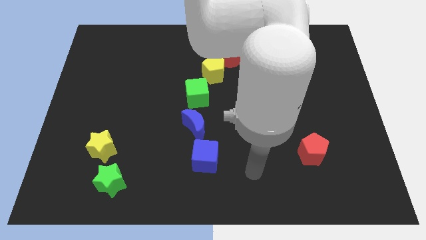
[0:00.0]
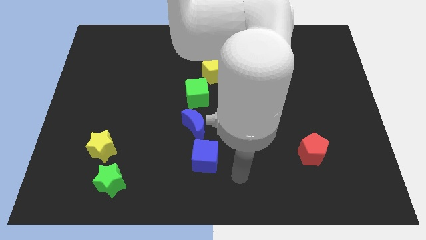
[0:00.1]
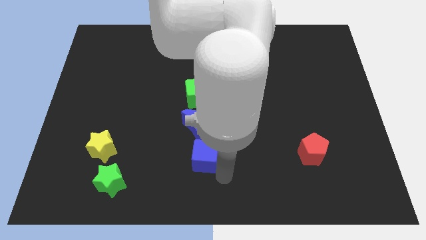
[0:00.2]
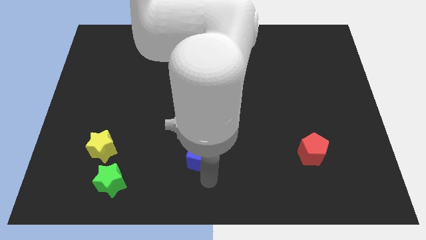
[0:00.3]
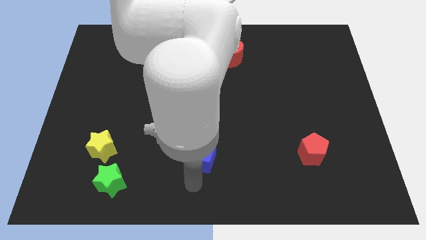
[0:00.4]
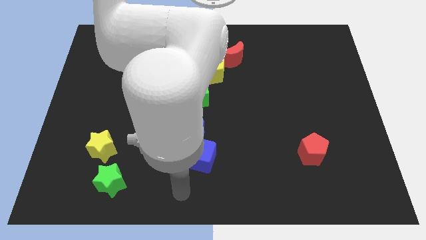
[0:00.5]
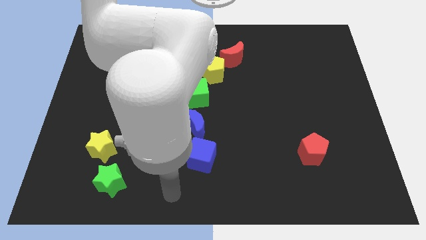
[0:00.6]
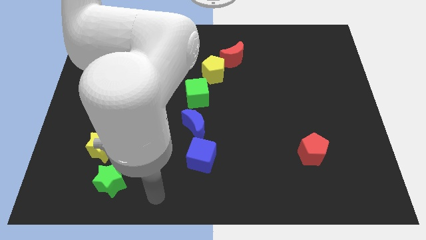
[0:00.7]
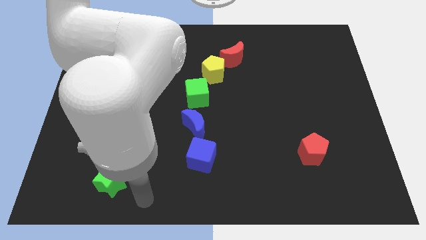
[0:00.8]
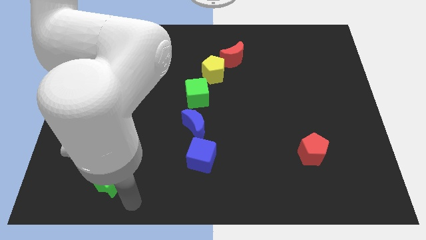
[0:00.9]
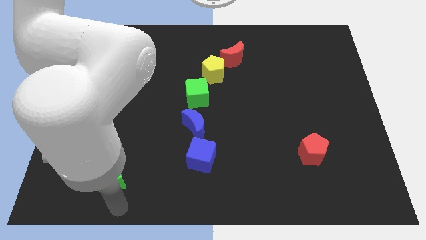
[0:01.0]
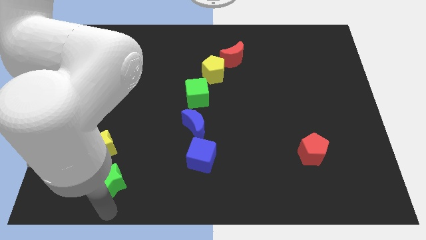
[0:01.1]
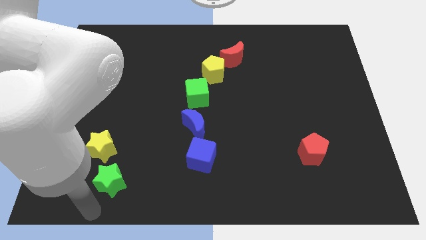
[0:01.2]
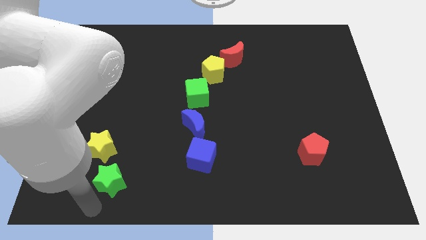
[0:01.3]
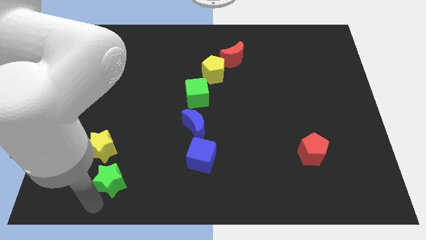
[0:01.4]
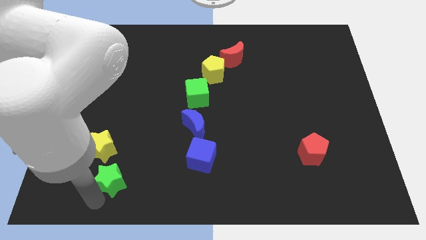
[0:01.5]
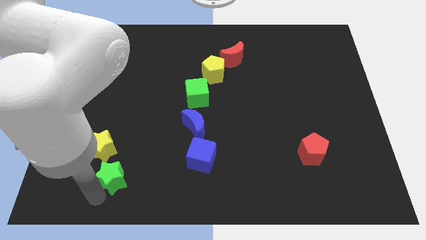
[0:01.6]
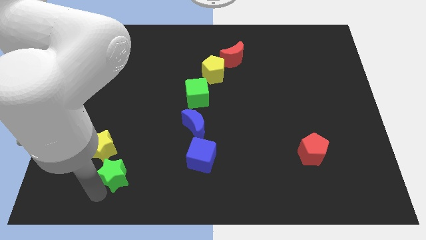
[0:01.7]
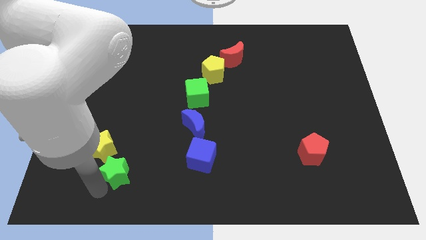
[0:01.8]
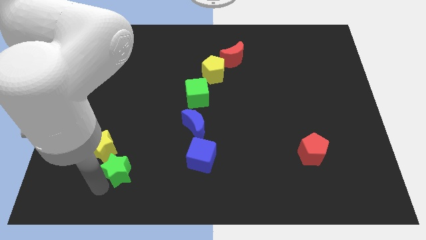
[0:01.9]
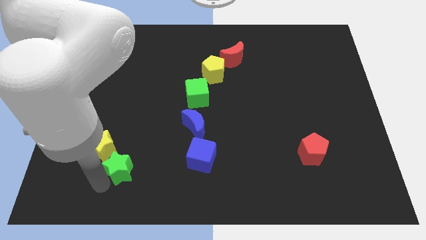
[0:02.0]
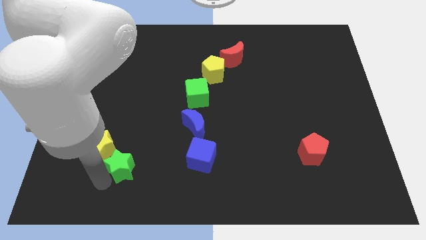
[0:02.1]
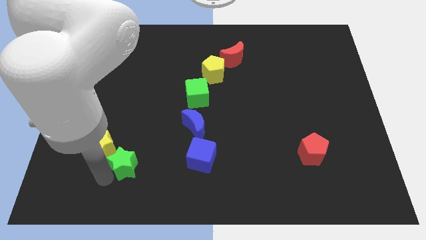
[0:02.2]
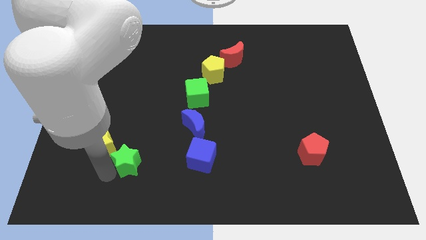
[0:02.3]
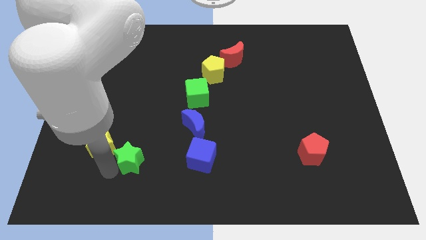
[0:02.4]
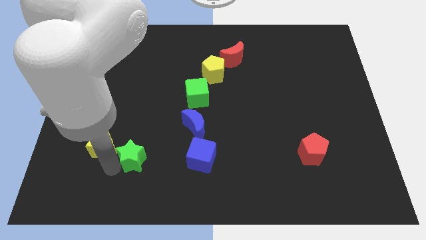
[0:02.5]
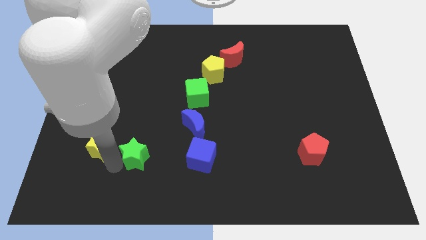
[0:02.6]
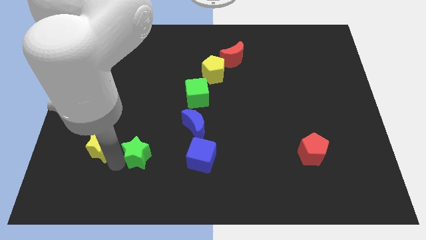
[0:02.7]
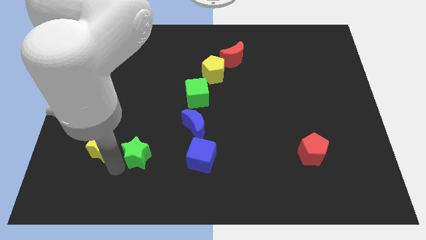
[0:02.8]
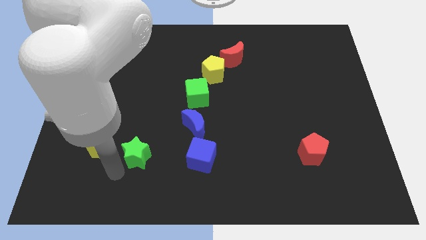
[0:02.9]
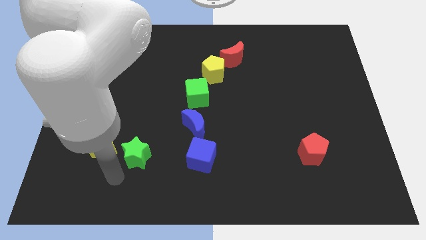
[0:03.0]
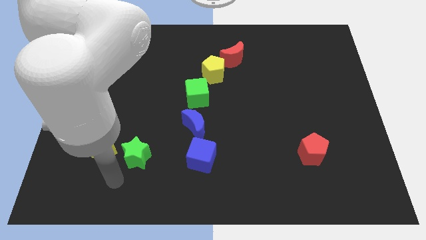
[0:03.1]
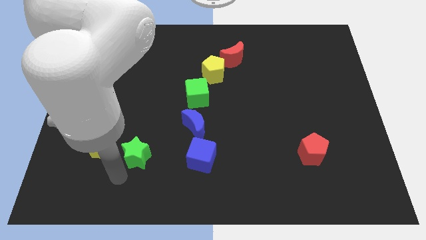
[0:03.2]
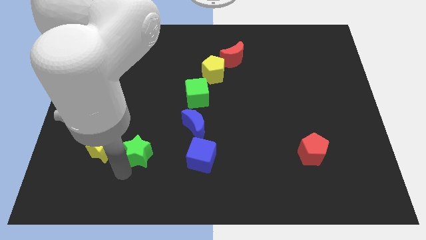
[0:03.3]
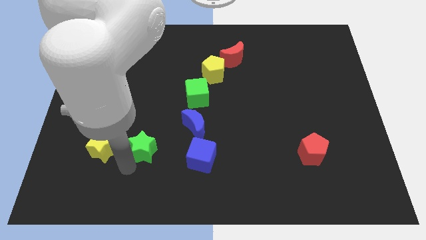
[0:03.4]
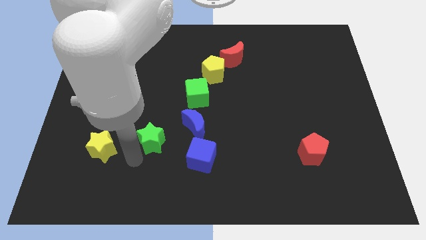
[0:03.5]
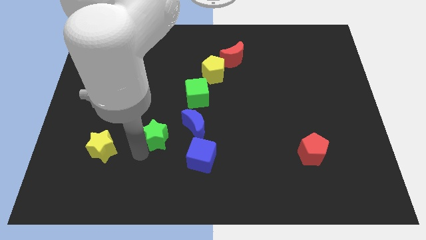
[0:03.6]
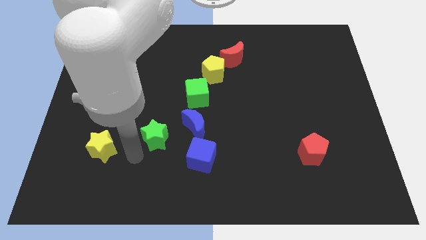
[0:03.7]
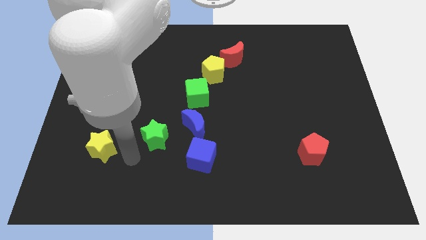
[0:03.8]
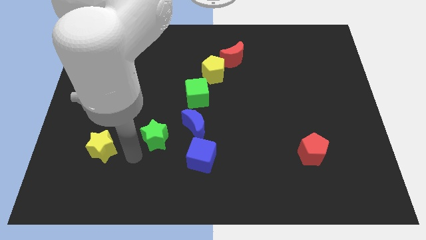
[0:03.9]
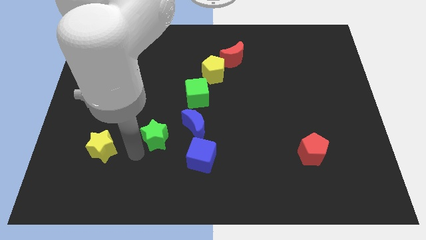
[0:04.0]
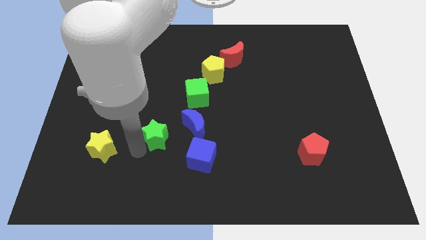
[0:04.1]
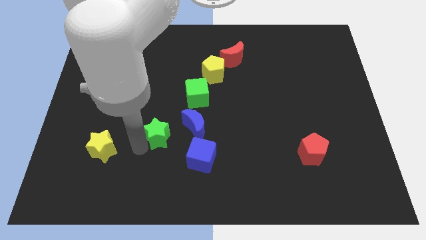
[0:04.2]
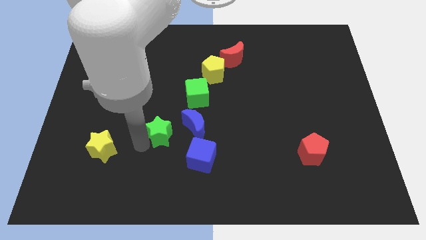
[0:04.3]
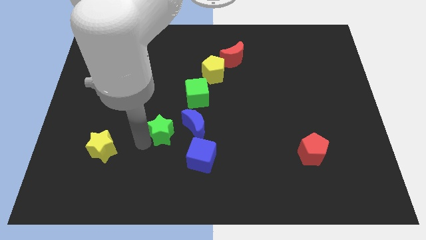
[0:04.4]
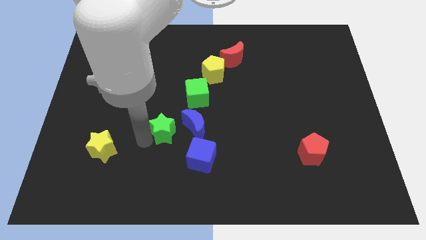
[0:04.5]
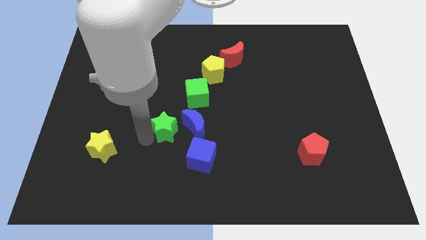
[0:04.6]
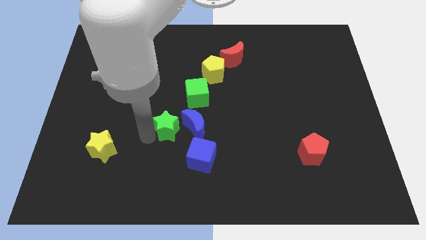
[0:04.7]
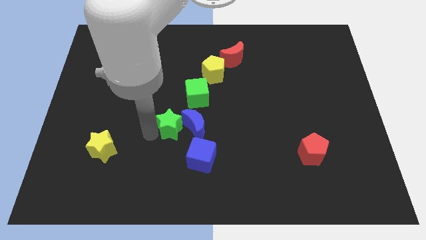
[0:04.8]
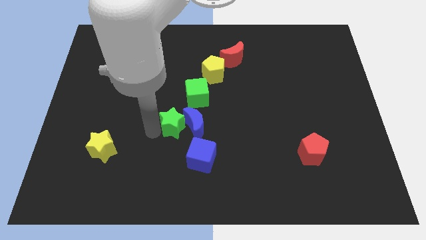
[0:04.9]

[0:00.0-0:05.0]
slide the green star to the middle of the board

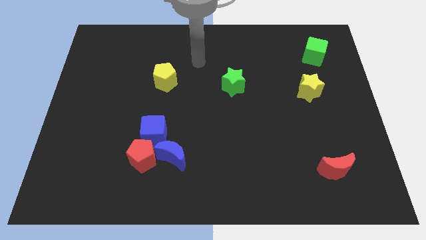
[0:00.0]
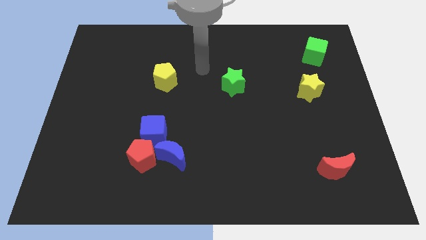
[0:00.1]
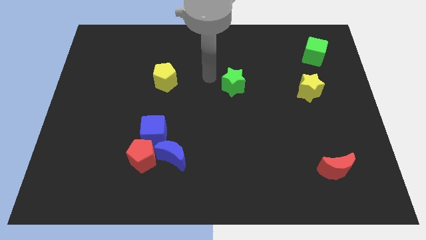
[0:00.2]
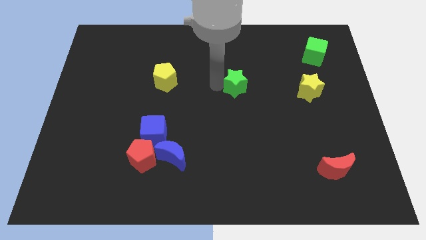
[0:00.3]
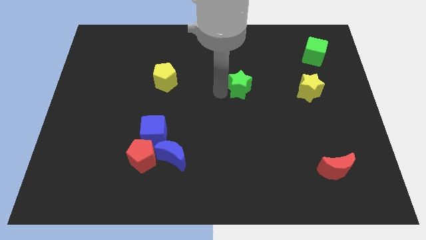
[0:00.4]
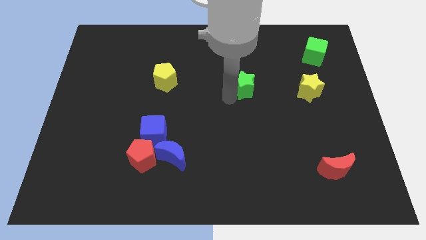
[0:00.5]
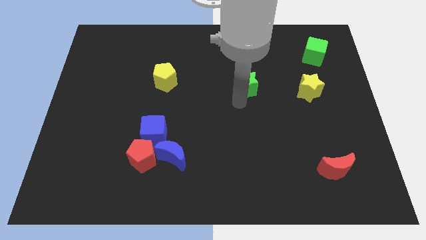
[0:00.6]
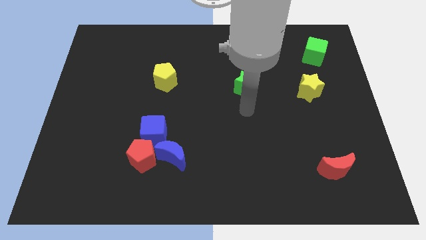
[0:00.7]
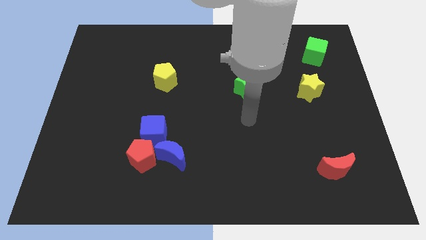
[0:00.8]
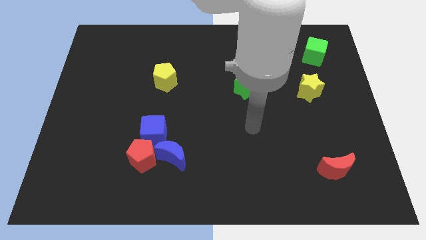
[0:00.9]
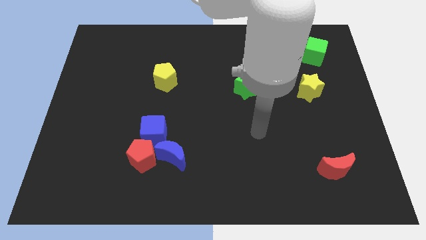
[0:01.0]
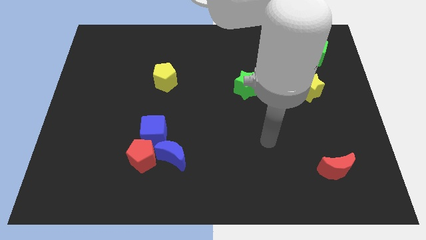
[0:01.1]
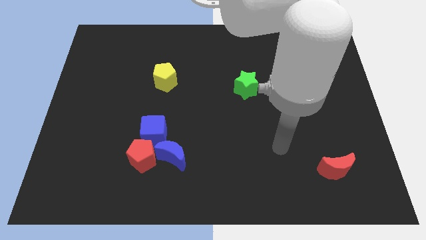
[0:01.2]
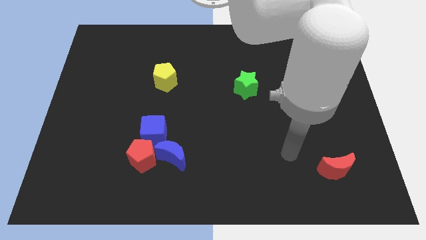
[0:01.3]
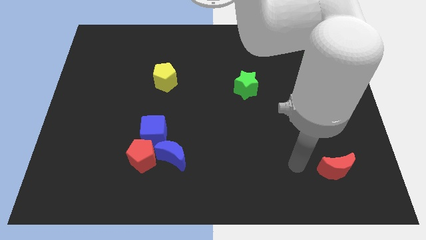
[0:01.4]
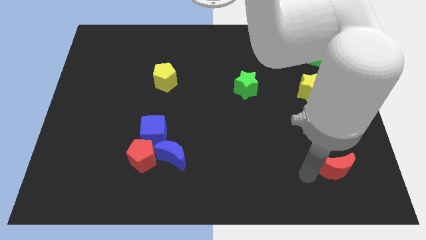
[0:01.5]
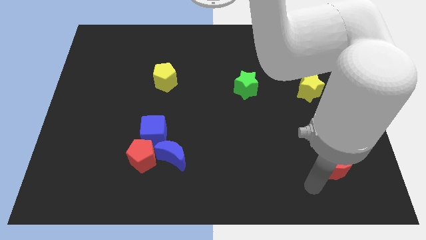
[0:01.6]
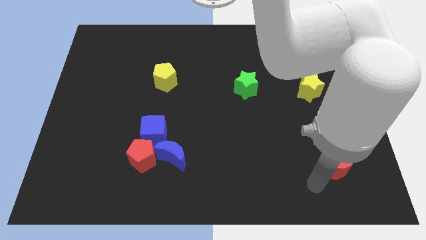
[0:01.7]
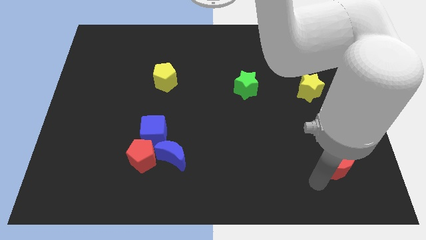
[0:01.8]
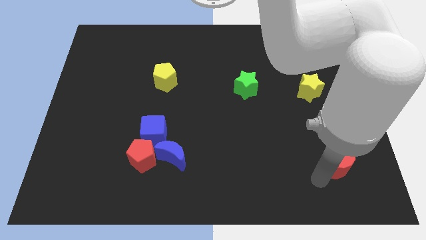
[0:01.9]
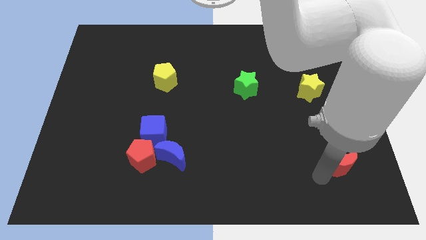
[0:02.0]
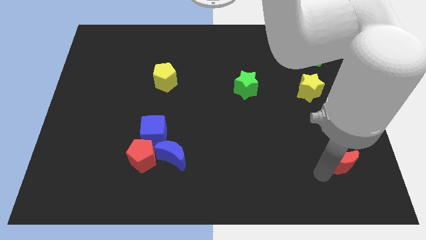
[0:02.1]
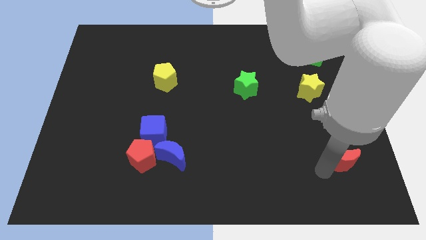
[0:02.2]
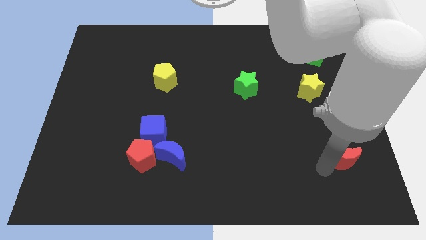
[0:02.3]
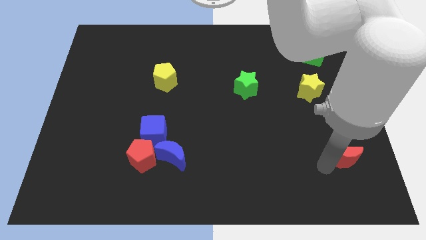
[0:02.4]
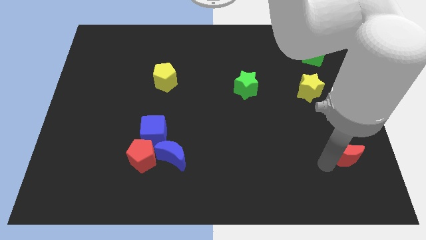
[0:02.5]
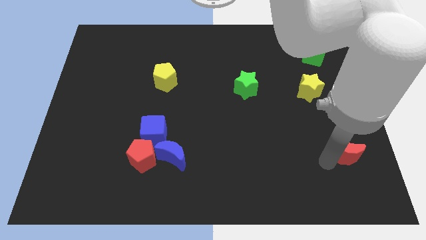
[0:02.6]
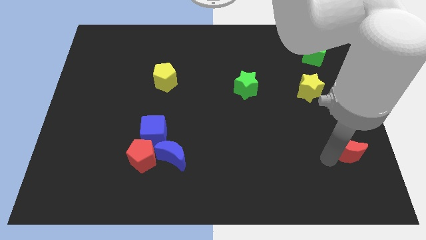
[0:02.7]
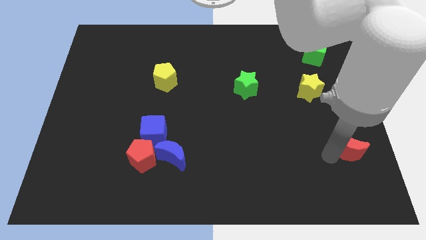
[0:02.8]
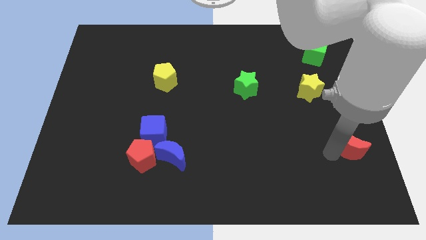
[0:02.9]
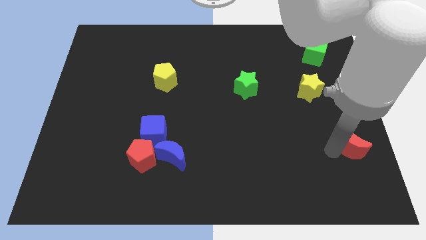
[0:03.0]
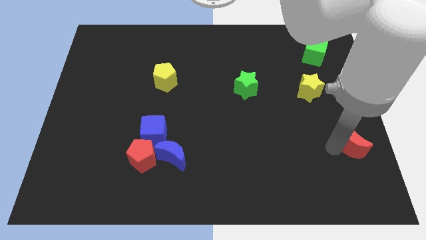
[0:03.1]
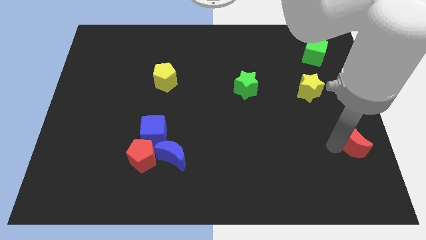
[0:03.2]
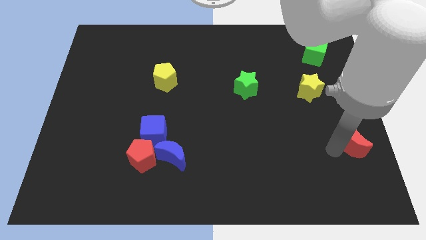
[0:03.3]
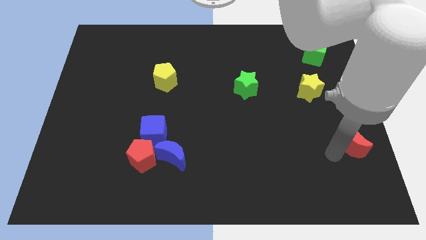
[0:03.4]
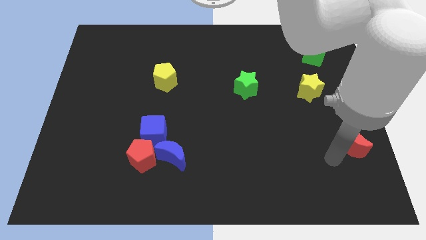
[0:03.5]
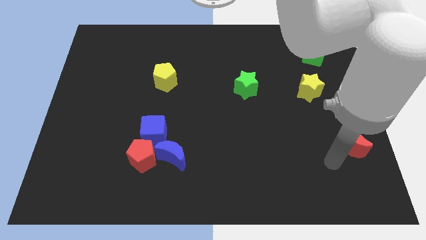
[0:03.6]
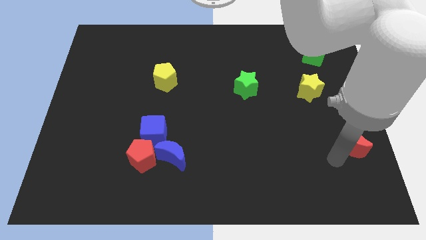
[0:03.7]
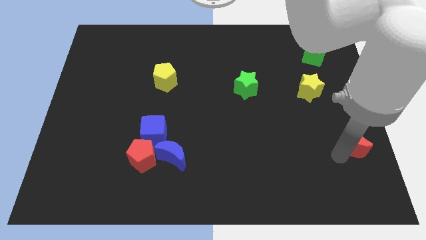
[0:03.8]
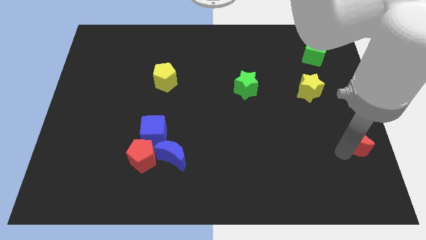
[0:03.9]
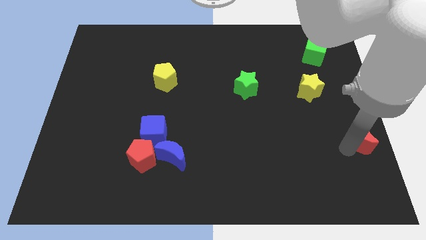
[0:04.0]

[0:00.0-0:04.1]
move the red moon to the right side
